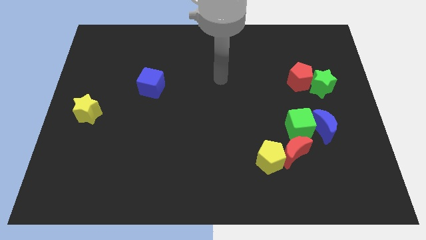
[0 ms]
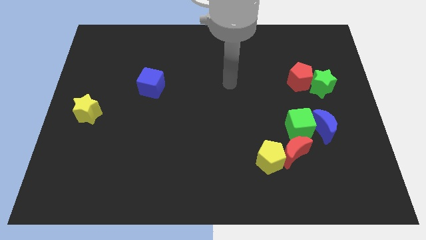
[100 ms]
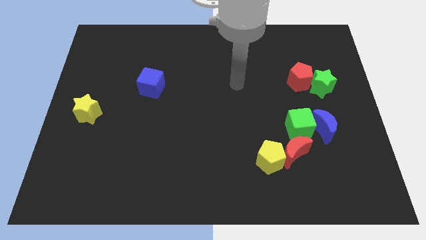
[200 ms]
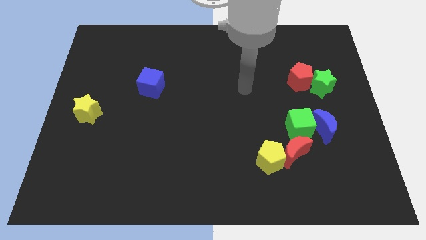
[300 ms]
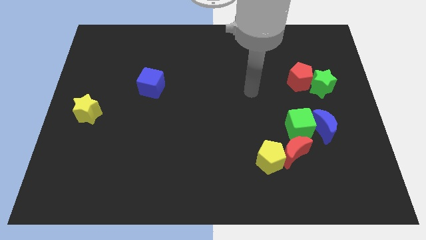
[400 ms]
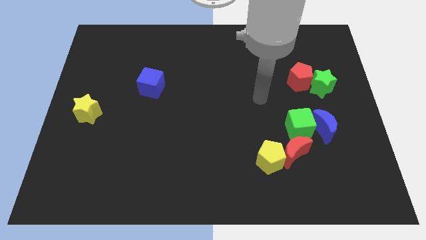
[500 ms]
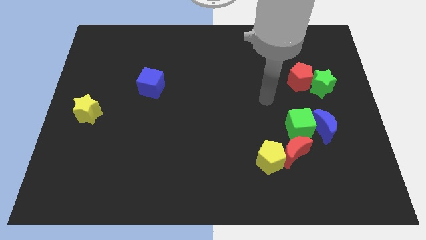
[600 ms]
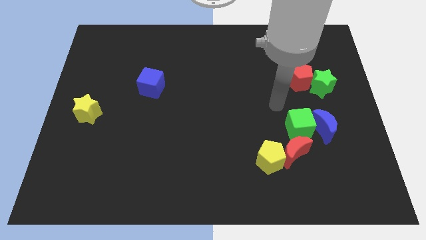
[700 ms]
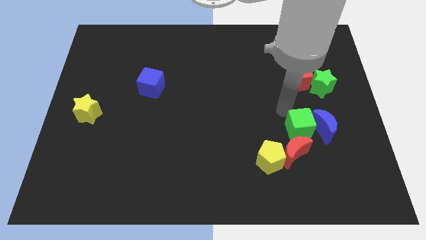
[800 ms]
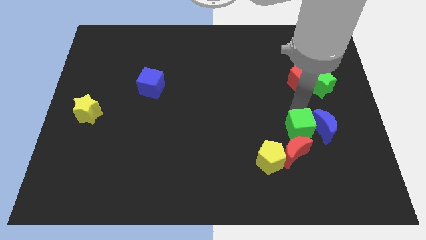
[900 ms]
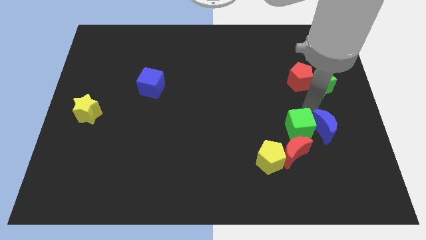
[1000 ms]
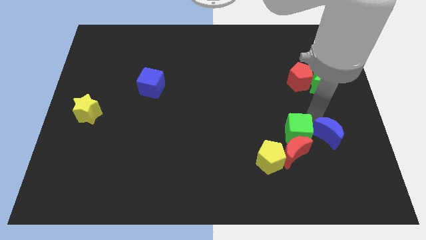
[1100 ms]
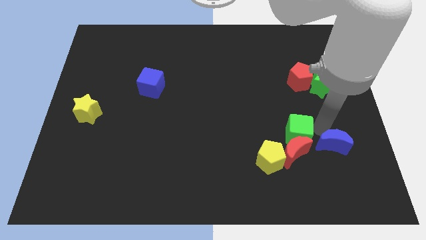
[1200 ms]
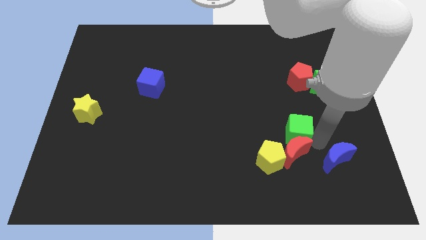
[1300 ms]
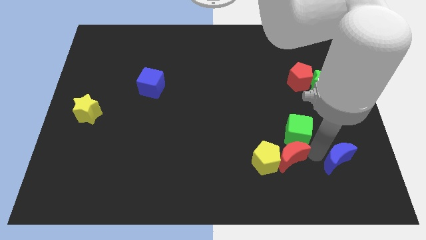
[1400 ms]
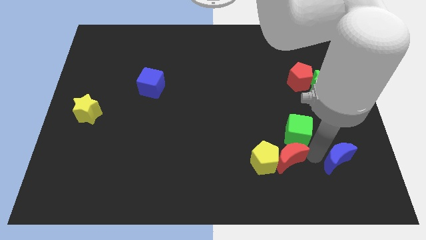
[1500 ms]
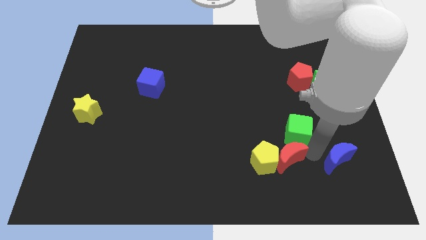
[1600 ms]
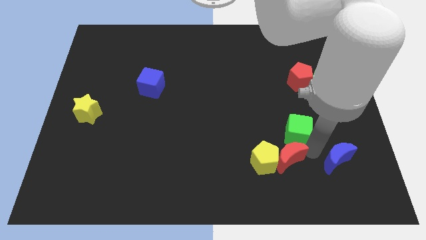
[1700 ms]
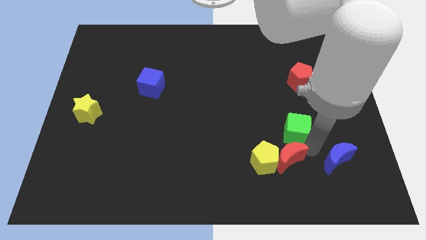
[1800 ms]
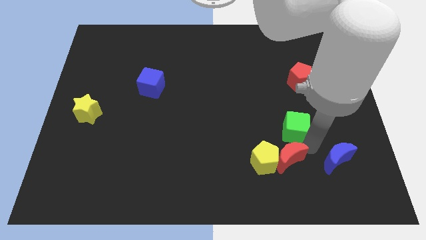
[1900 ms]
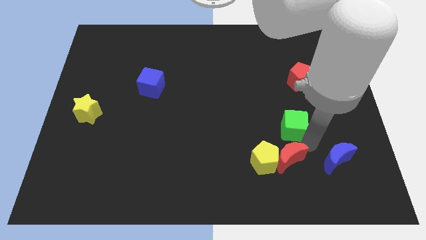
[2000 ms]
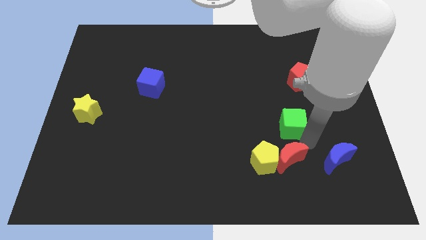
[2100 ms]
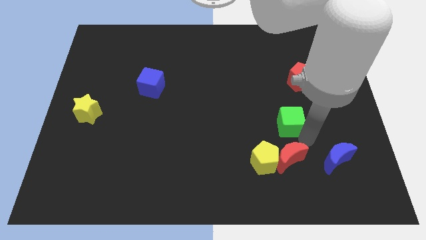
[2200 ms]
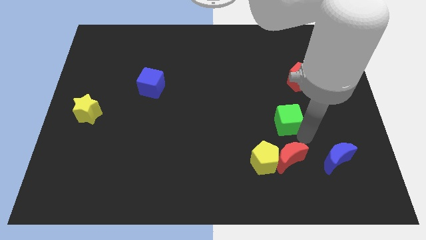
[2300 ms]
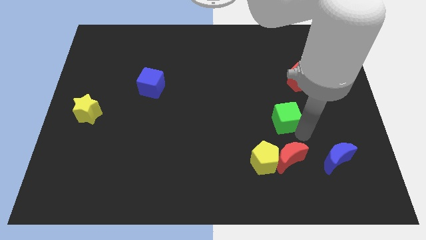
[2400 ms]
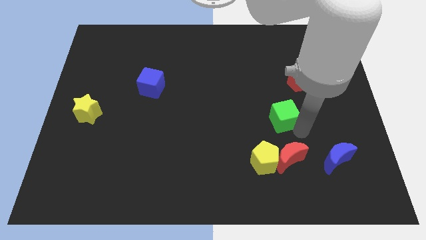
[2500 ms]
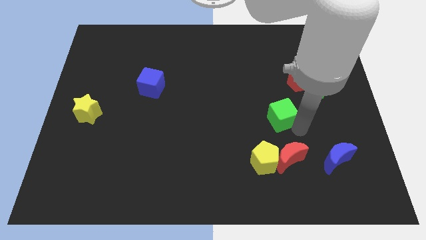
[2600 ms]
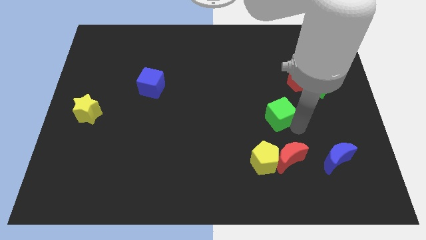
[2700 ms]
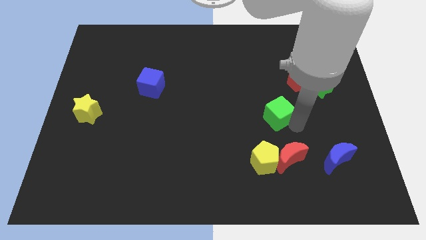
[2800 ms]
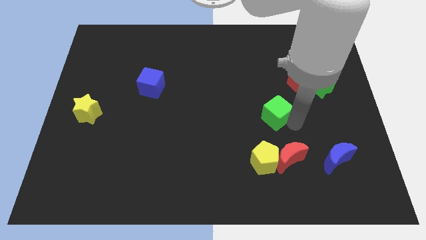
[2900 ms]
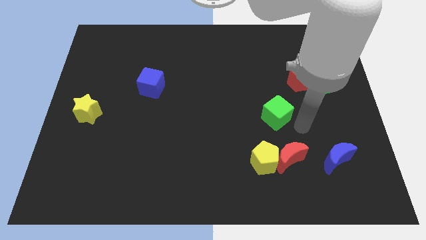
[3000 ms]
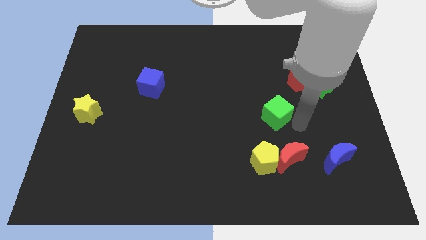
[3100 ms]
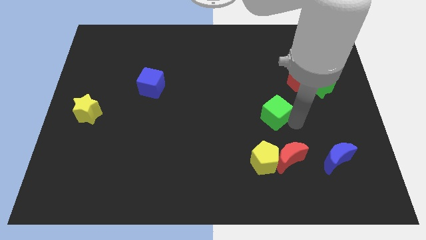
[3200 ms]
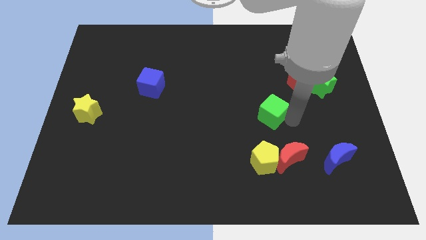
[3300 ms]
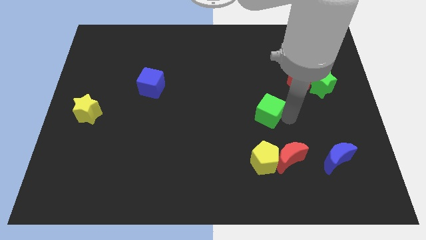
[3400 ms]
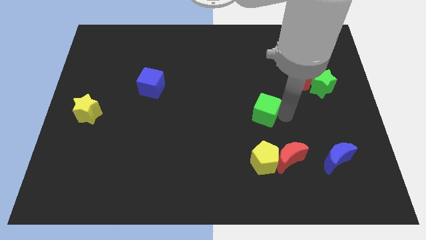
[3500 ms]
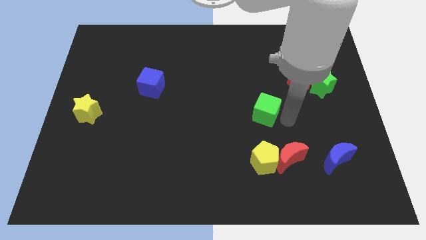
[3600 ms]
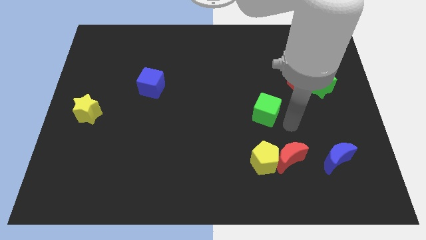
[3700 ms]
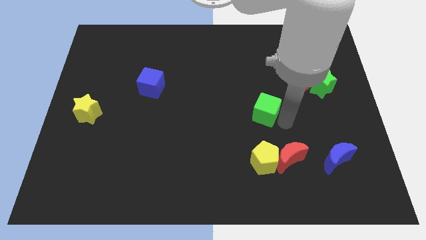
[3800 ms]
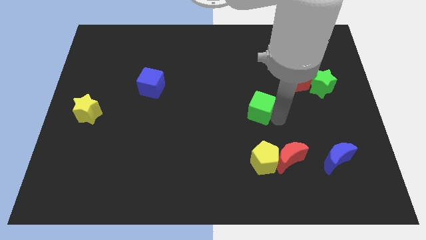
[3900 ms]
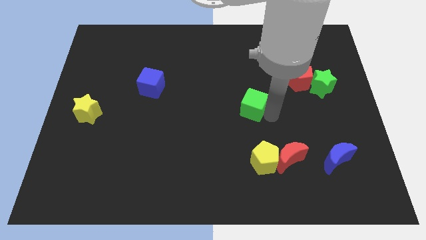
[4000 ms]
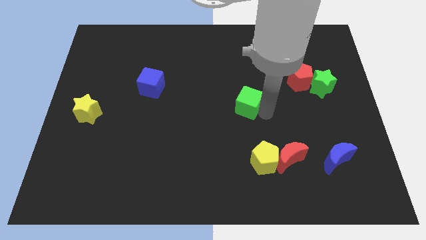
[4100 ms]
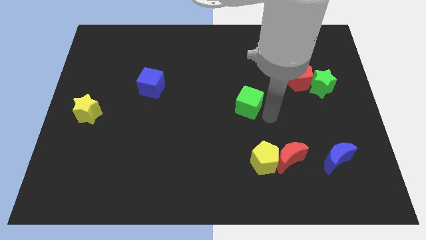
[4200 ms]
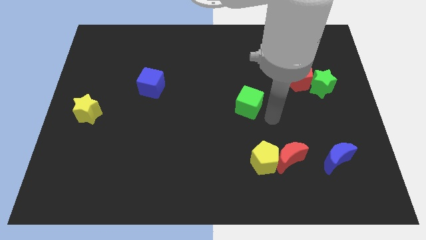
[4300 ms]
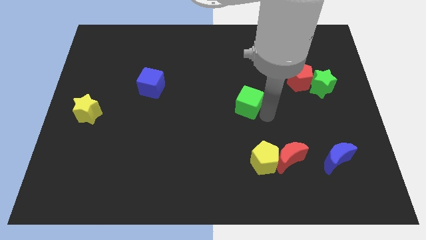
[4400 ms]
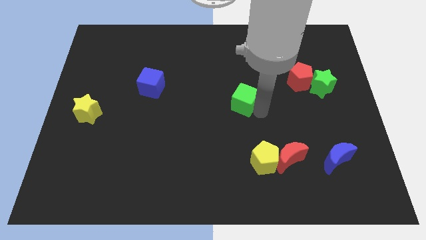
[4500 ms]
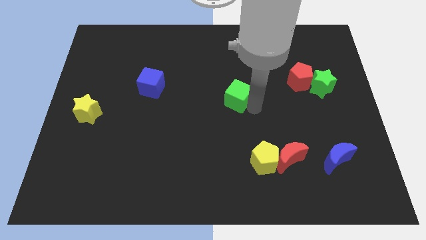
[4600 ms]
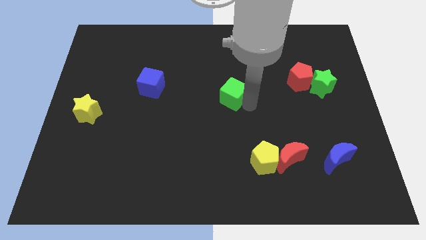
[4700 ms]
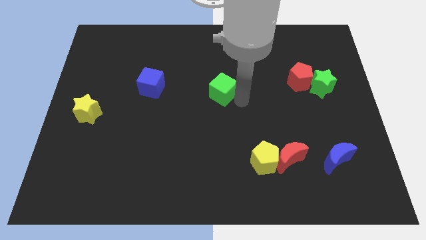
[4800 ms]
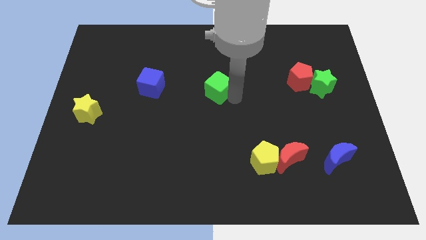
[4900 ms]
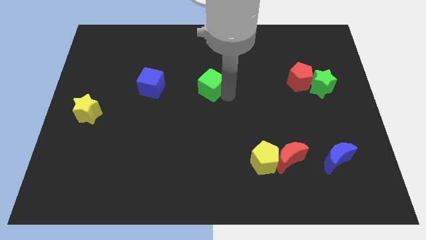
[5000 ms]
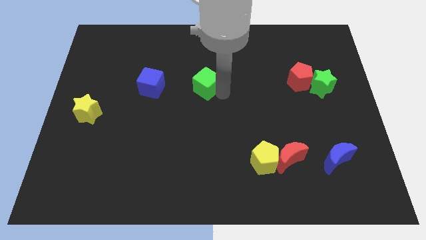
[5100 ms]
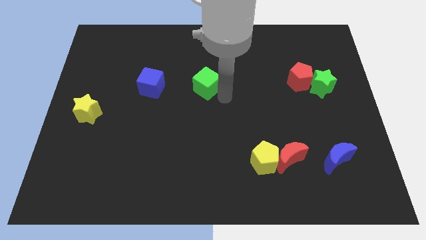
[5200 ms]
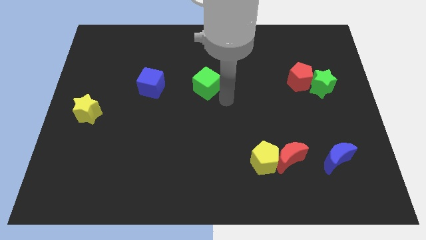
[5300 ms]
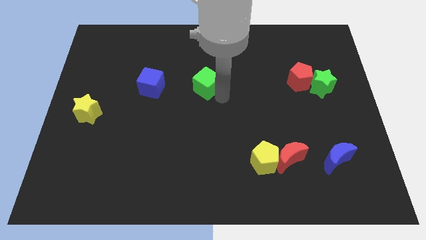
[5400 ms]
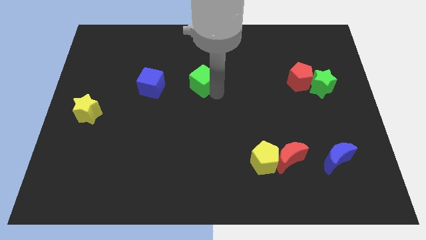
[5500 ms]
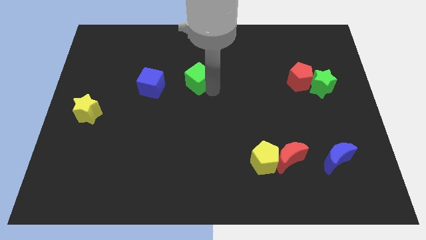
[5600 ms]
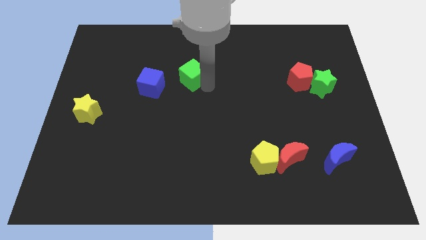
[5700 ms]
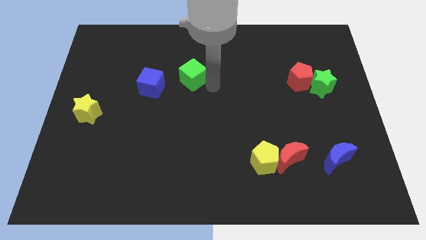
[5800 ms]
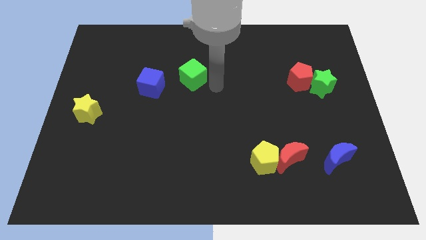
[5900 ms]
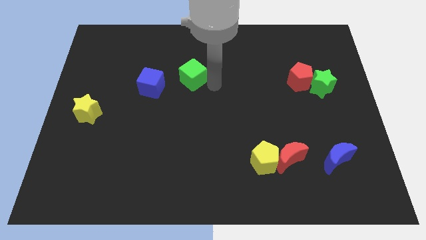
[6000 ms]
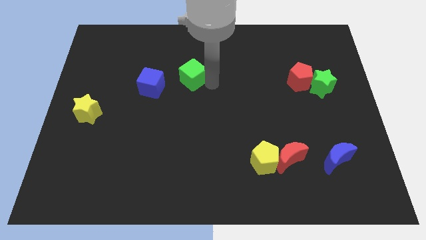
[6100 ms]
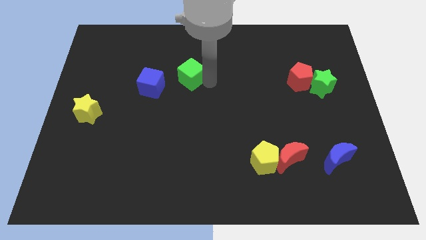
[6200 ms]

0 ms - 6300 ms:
slide the green cube to the top right of the blue cube

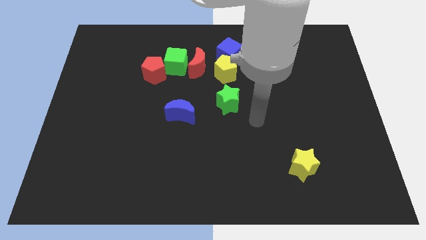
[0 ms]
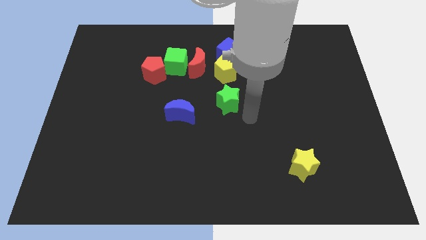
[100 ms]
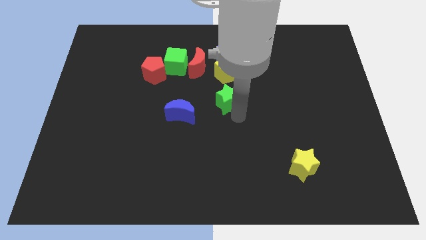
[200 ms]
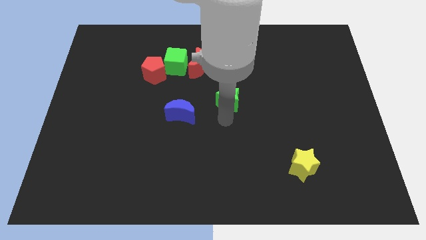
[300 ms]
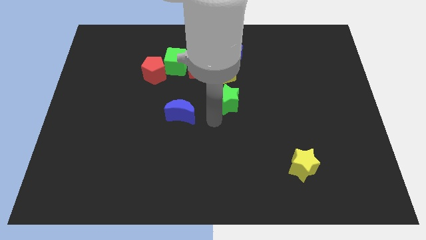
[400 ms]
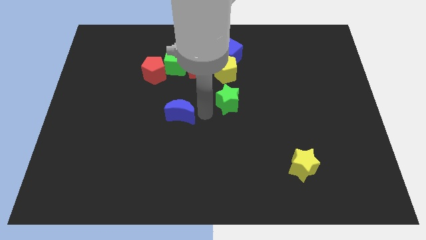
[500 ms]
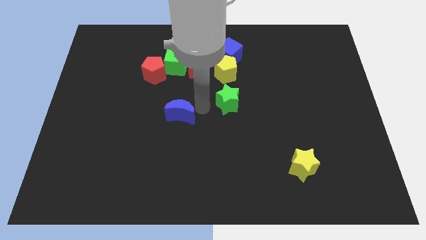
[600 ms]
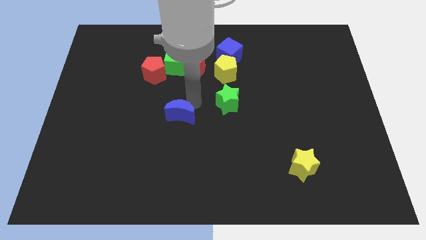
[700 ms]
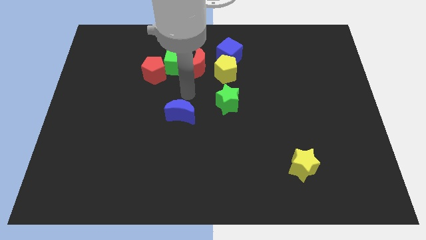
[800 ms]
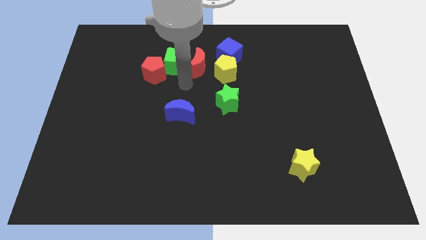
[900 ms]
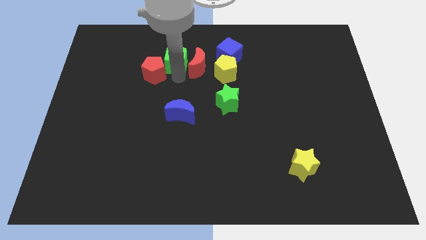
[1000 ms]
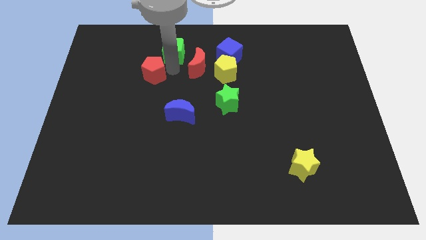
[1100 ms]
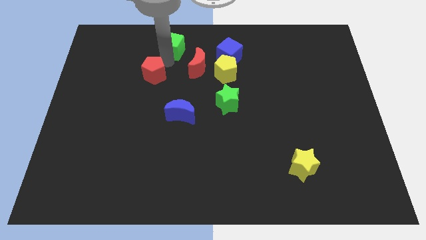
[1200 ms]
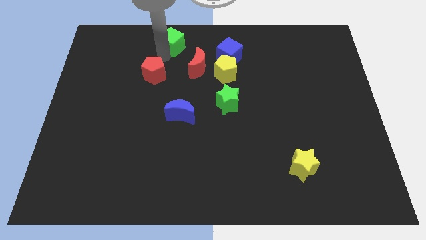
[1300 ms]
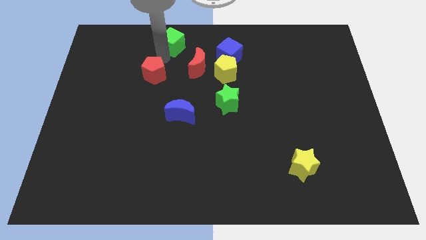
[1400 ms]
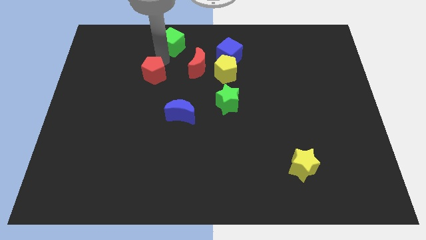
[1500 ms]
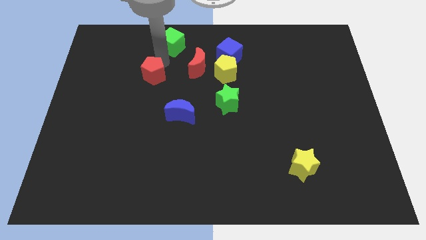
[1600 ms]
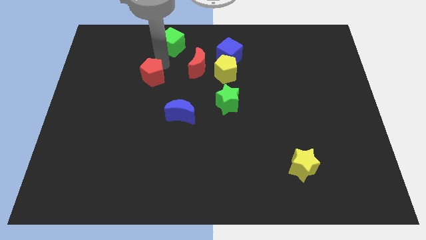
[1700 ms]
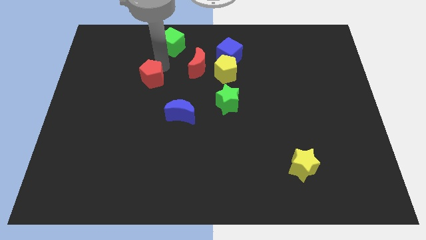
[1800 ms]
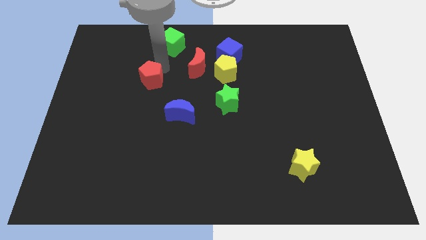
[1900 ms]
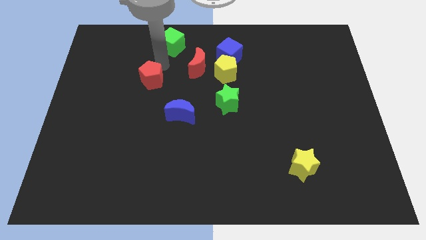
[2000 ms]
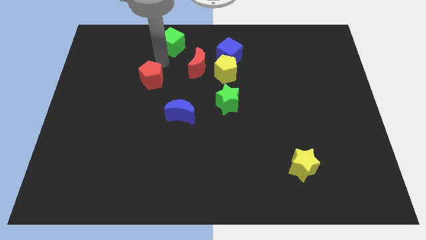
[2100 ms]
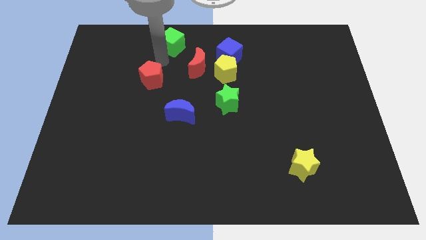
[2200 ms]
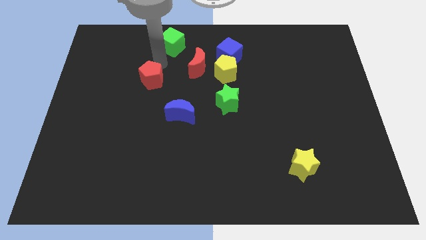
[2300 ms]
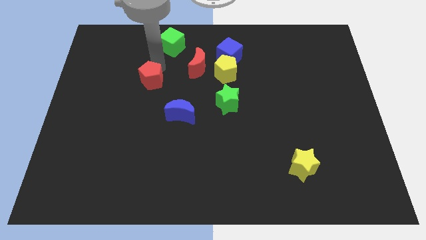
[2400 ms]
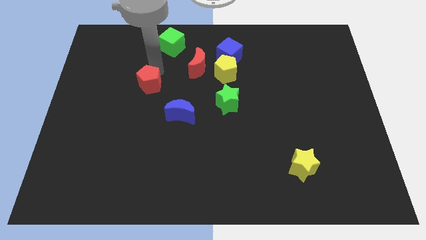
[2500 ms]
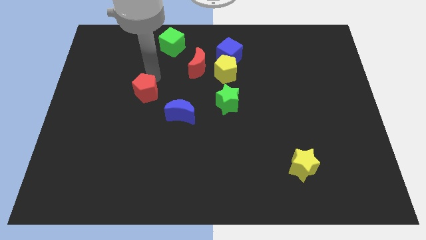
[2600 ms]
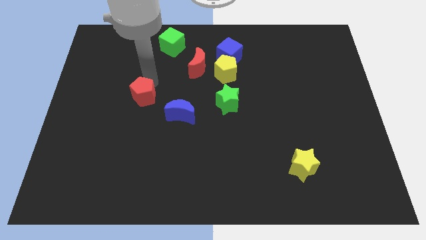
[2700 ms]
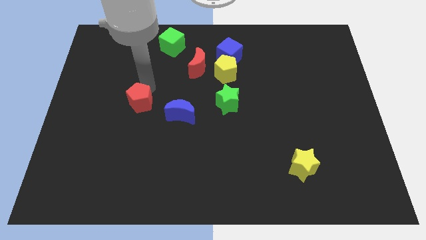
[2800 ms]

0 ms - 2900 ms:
move the red pentagon to the left side of the blue moon
